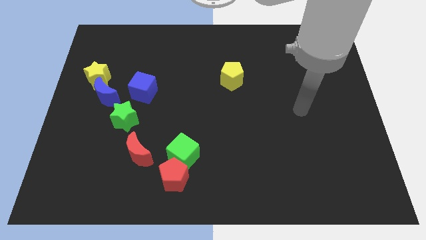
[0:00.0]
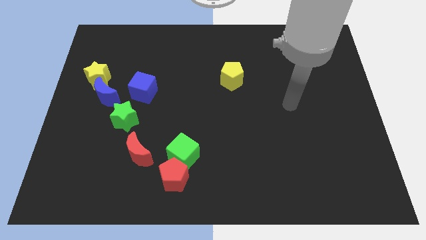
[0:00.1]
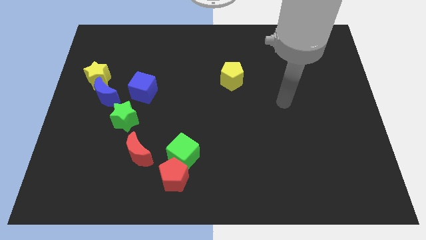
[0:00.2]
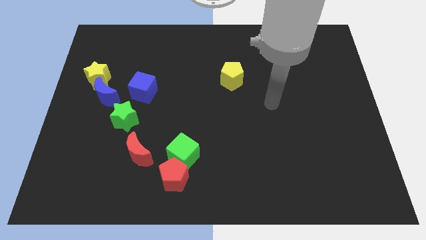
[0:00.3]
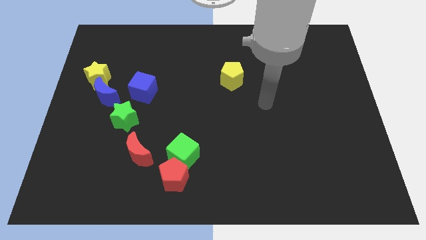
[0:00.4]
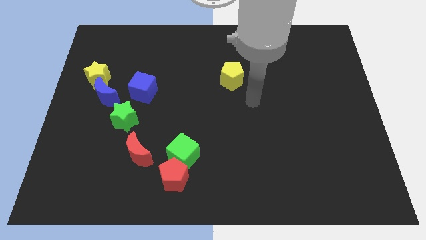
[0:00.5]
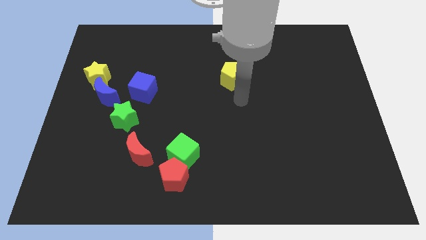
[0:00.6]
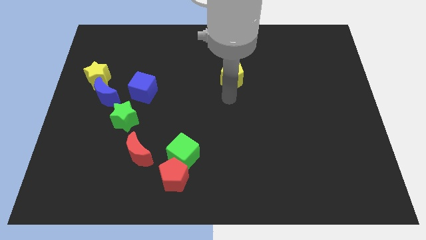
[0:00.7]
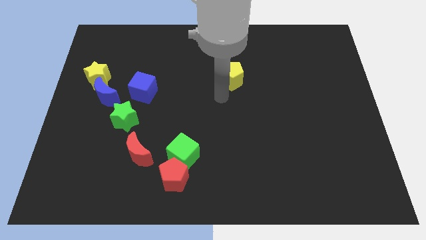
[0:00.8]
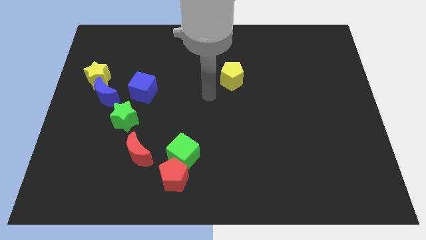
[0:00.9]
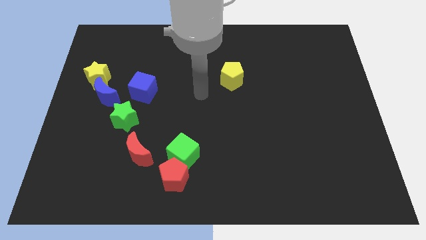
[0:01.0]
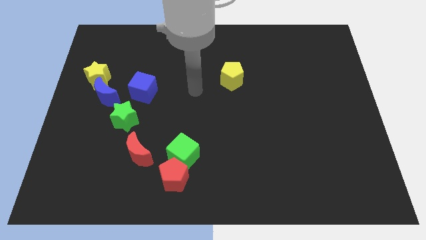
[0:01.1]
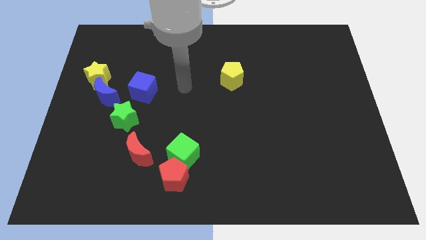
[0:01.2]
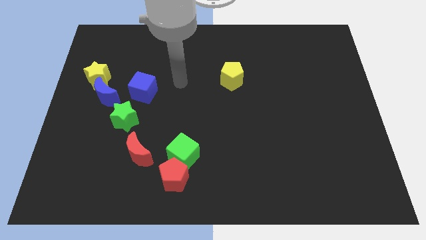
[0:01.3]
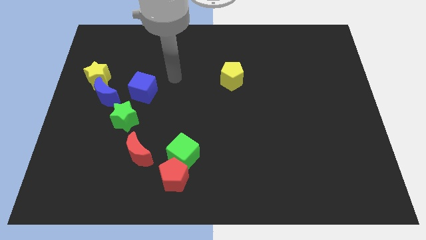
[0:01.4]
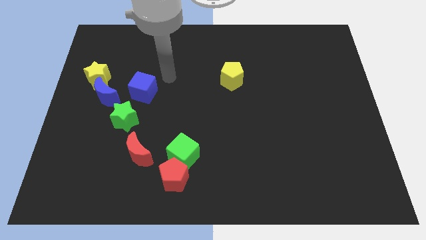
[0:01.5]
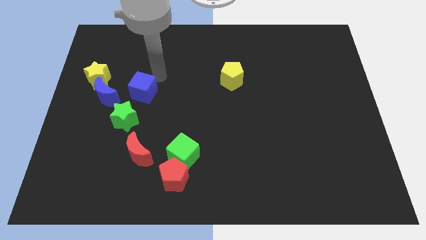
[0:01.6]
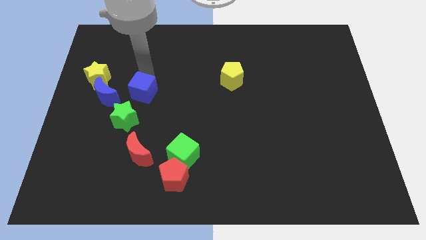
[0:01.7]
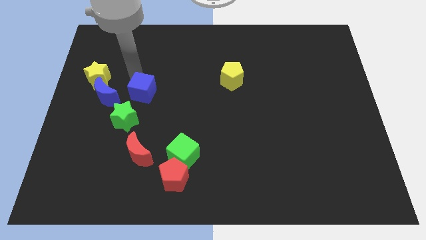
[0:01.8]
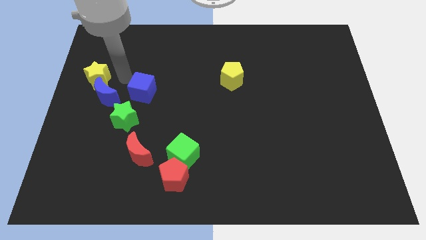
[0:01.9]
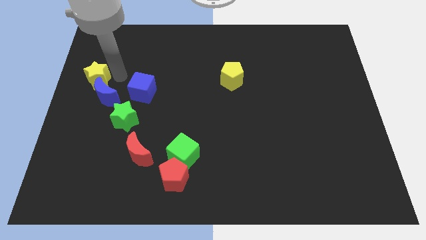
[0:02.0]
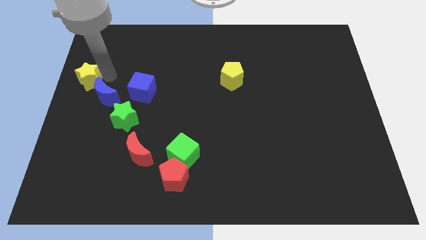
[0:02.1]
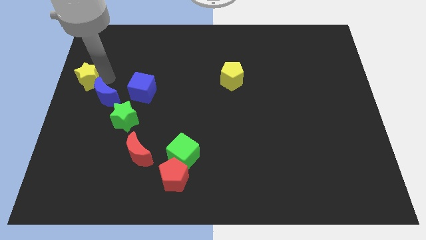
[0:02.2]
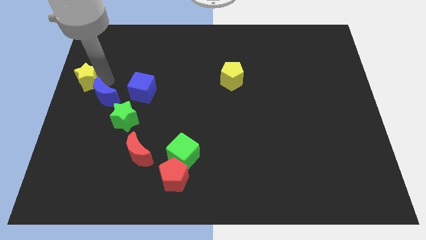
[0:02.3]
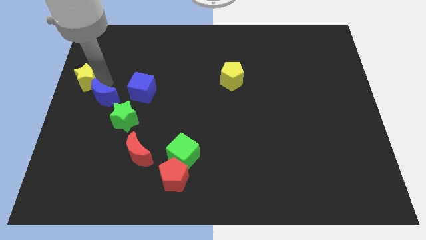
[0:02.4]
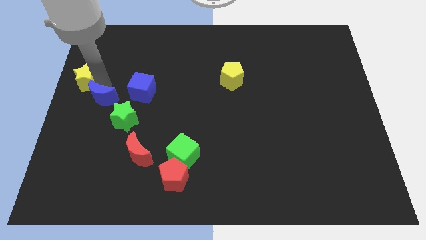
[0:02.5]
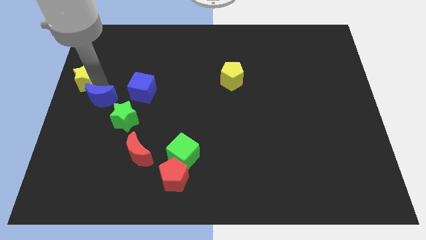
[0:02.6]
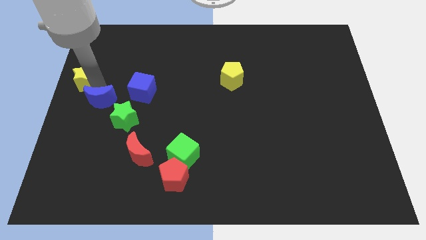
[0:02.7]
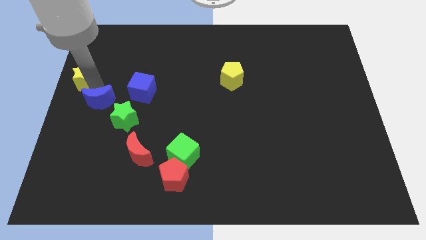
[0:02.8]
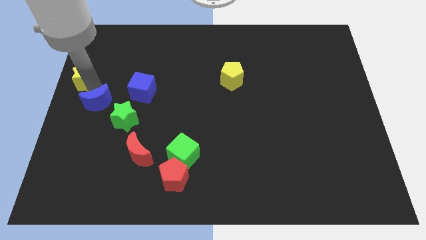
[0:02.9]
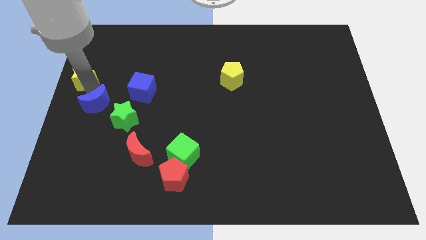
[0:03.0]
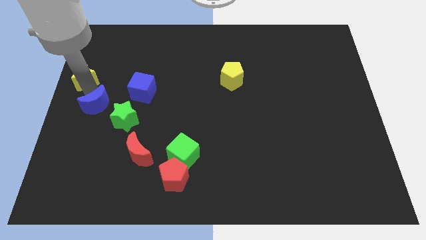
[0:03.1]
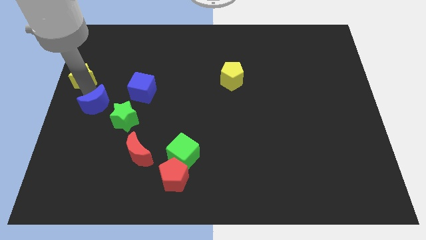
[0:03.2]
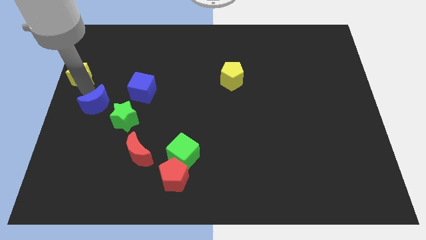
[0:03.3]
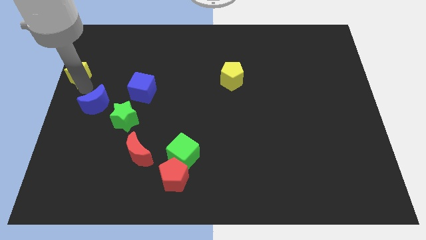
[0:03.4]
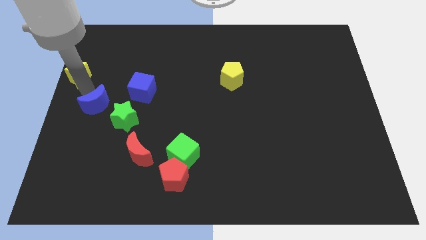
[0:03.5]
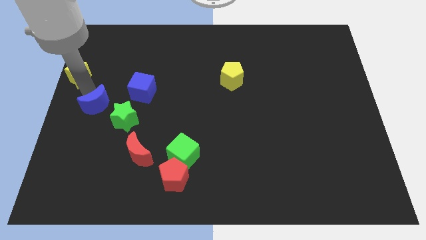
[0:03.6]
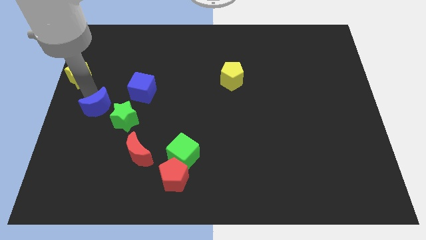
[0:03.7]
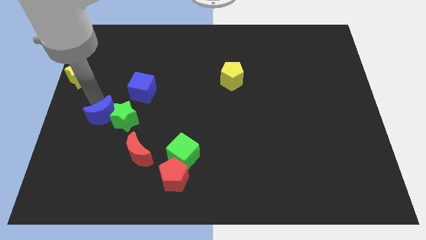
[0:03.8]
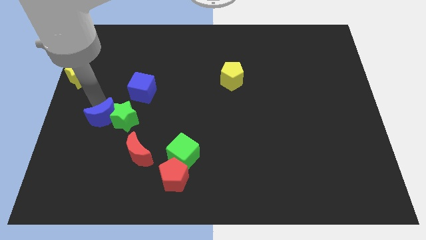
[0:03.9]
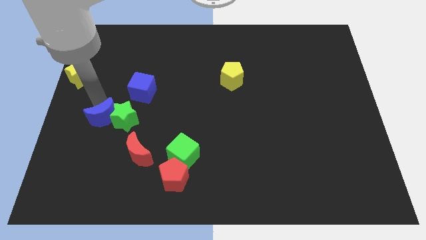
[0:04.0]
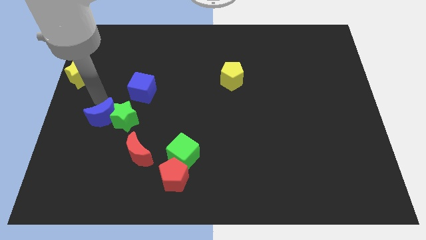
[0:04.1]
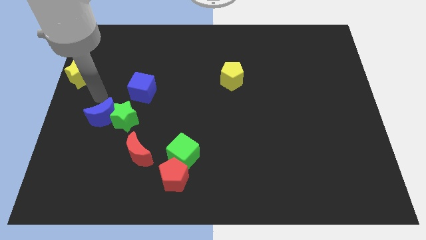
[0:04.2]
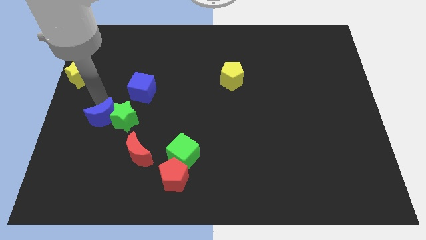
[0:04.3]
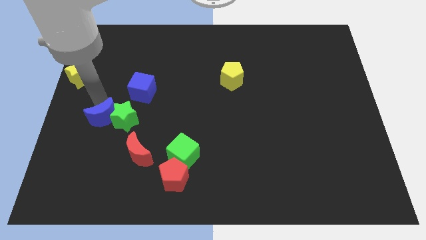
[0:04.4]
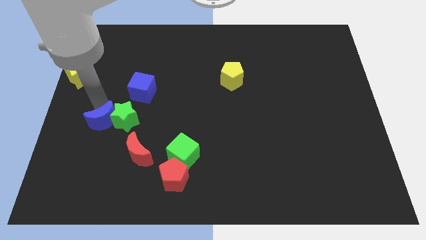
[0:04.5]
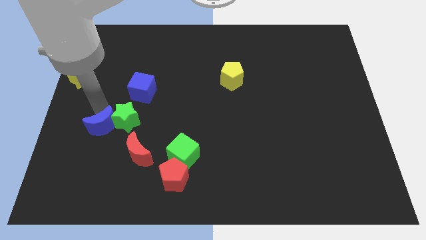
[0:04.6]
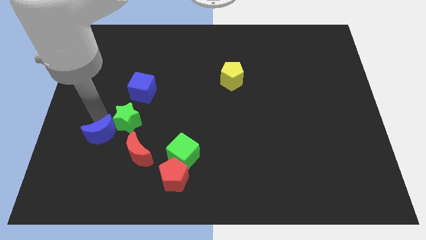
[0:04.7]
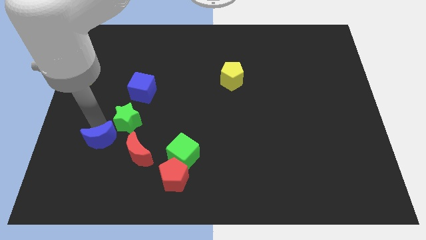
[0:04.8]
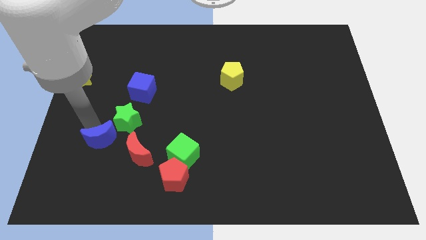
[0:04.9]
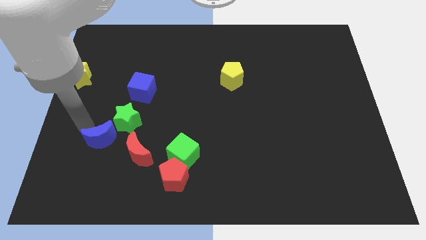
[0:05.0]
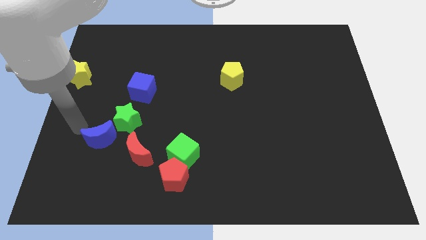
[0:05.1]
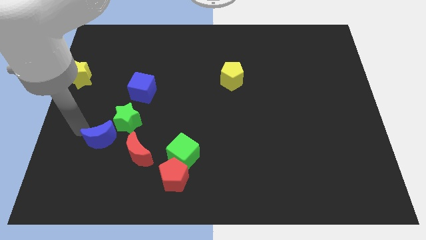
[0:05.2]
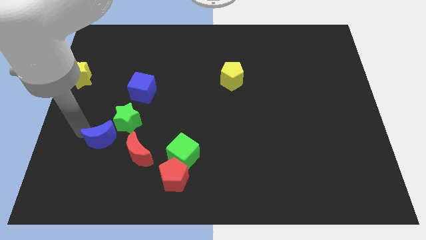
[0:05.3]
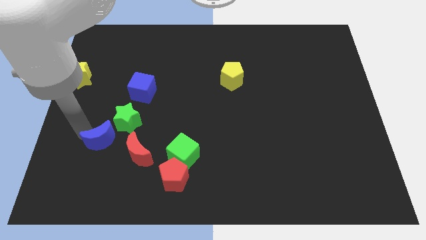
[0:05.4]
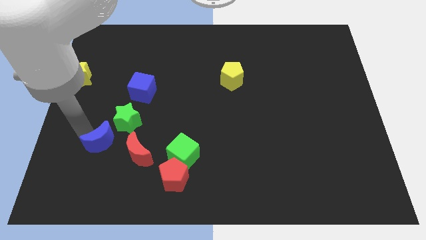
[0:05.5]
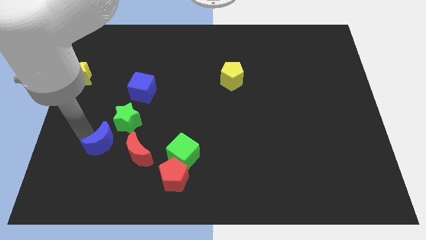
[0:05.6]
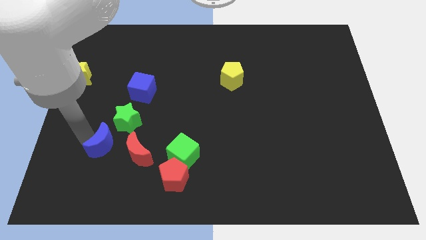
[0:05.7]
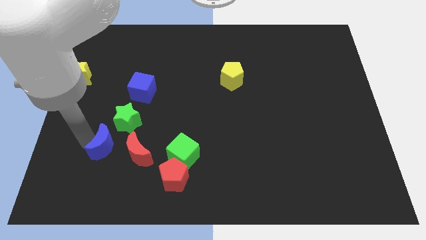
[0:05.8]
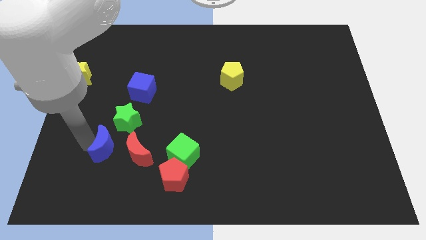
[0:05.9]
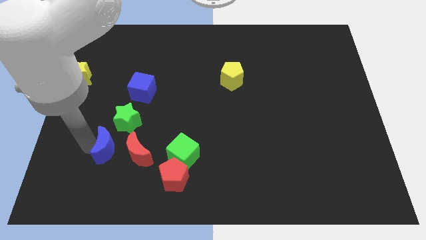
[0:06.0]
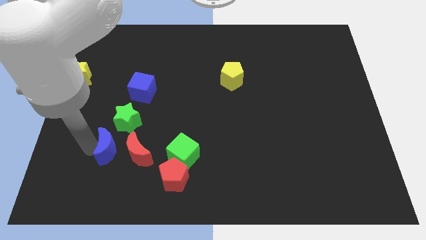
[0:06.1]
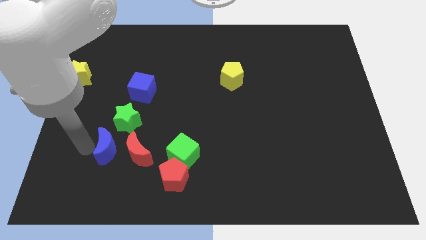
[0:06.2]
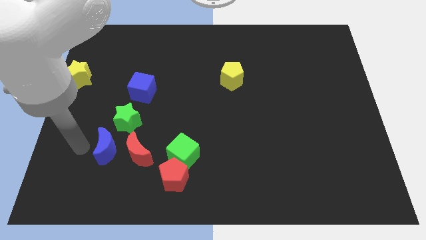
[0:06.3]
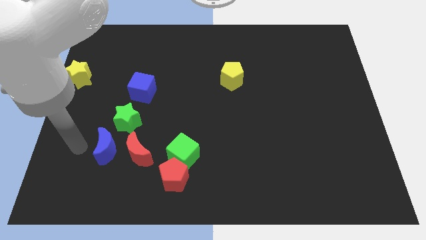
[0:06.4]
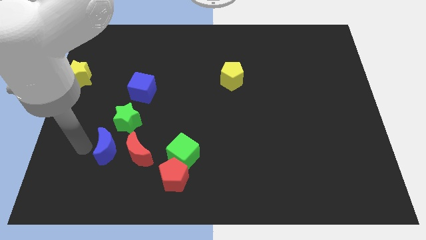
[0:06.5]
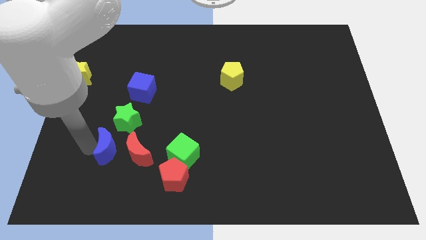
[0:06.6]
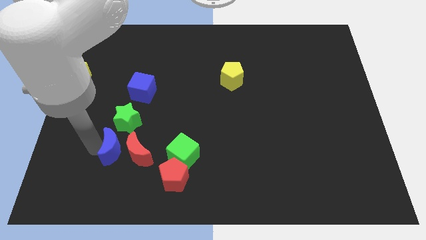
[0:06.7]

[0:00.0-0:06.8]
push the blue moon towards the red moon

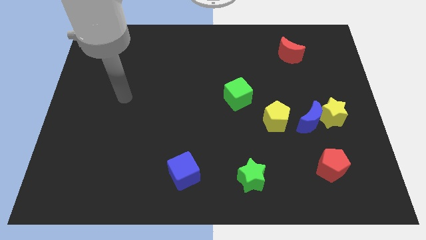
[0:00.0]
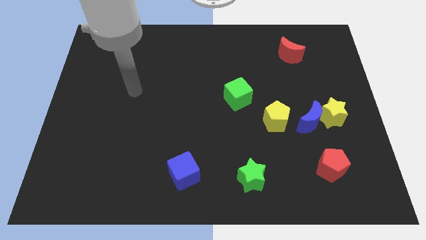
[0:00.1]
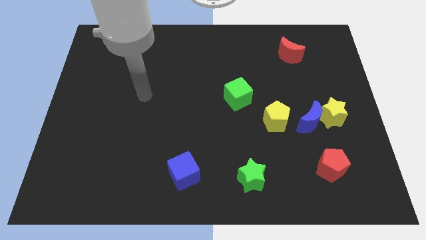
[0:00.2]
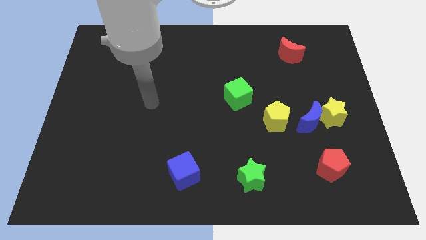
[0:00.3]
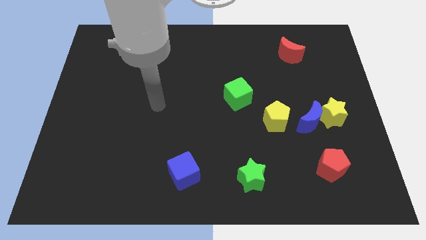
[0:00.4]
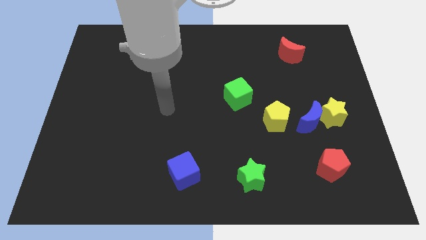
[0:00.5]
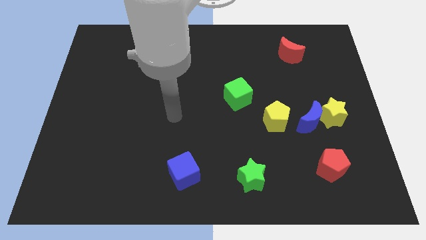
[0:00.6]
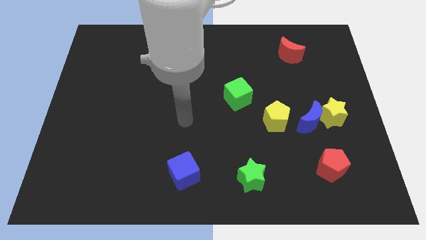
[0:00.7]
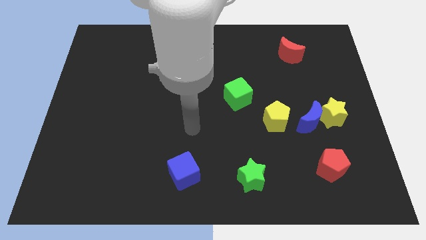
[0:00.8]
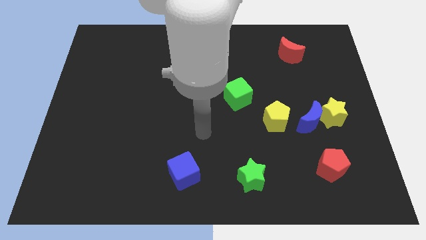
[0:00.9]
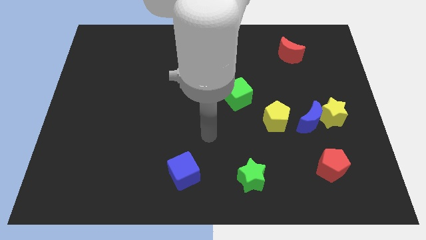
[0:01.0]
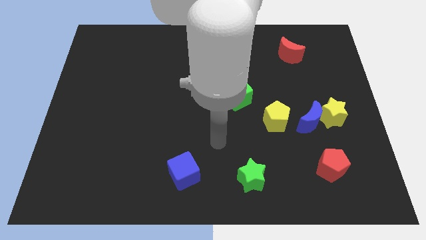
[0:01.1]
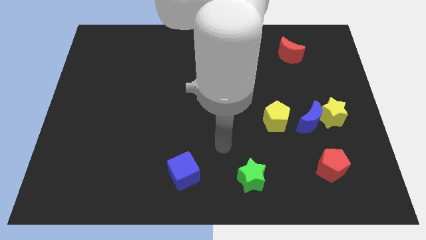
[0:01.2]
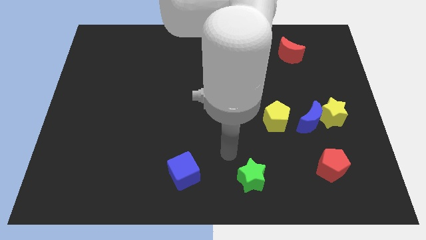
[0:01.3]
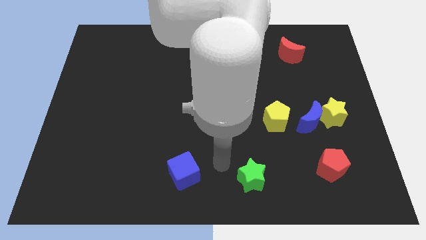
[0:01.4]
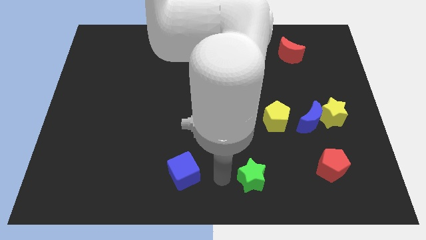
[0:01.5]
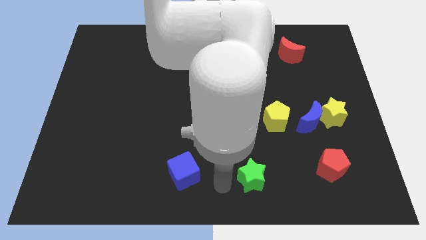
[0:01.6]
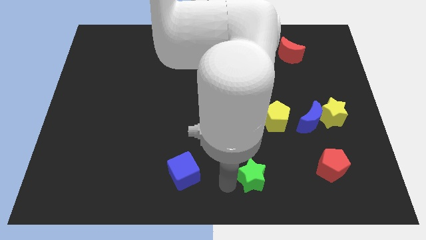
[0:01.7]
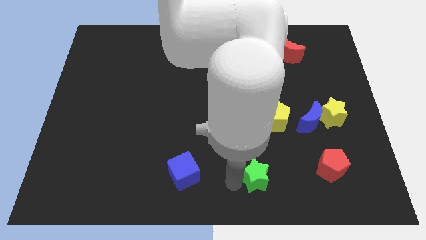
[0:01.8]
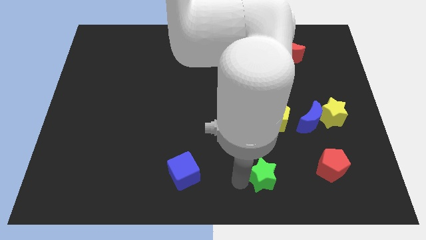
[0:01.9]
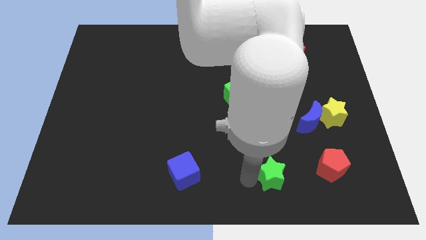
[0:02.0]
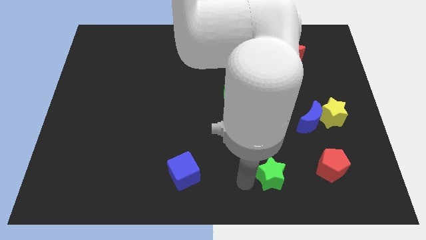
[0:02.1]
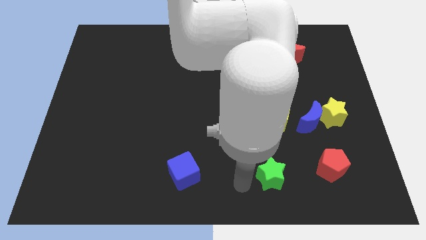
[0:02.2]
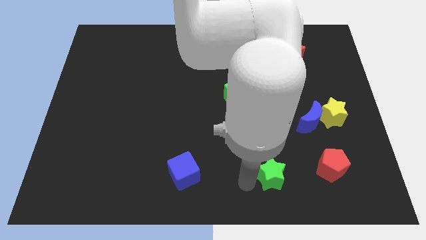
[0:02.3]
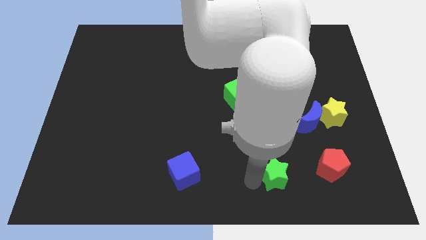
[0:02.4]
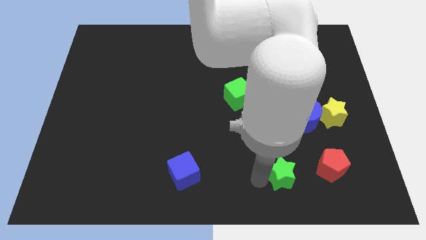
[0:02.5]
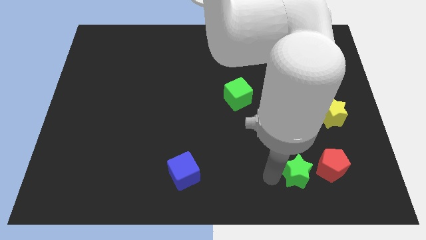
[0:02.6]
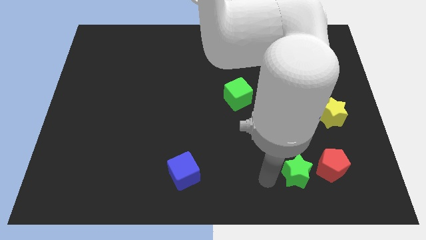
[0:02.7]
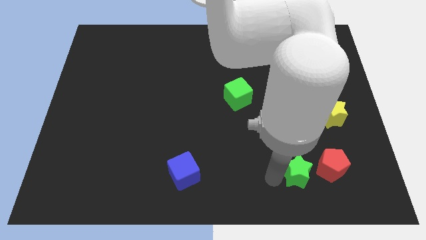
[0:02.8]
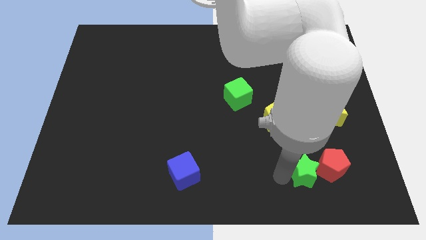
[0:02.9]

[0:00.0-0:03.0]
slide the green star to the red pentagon
